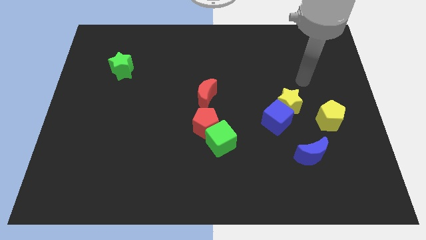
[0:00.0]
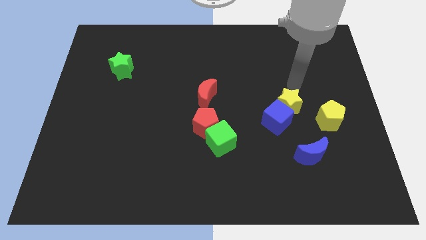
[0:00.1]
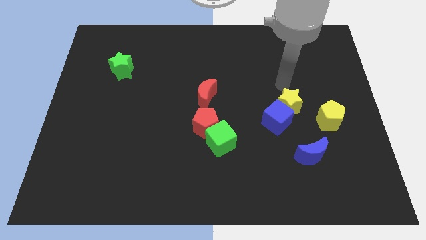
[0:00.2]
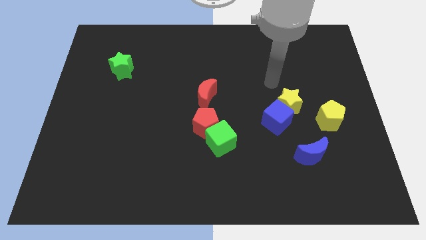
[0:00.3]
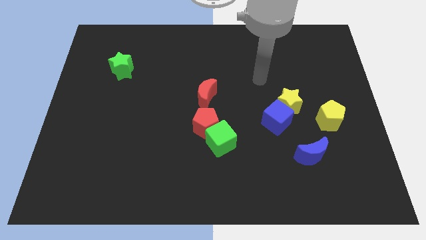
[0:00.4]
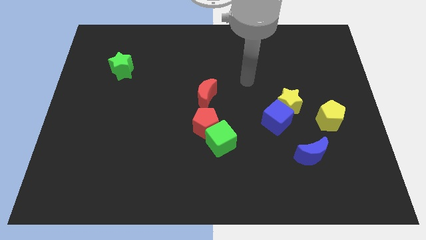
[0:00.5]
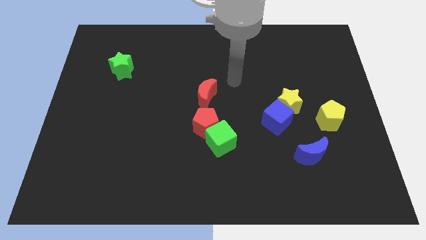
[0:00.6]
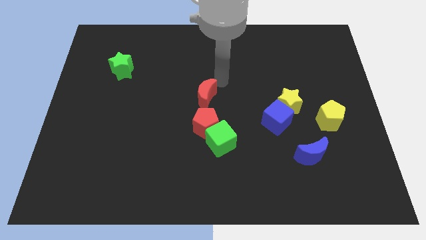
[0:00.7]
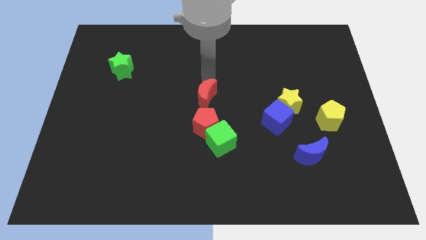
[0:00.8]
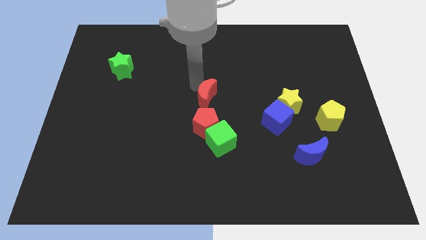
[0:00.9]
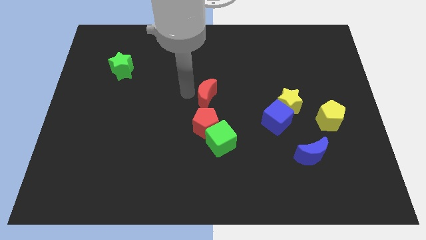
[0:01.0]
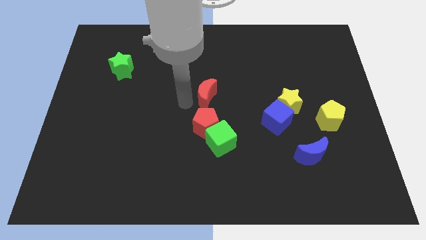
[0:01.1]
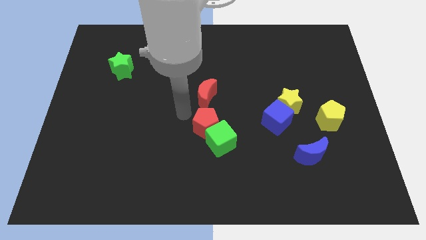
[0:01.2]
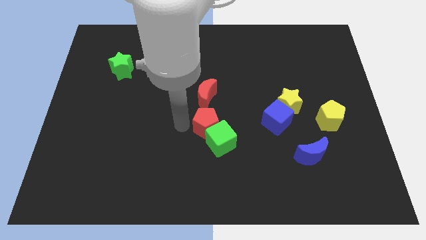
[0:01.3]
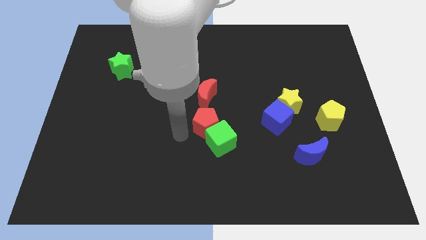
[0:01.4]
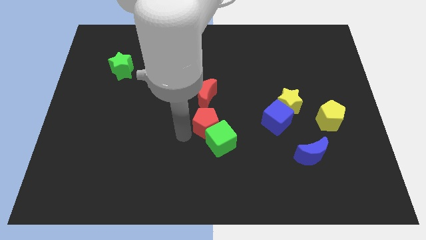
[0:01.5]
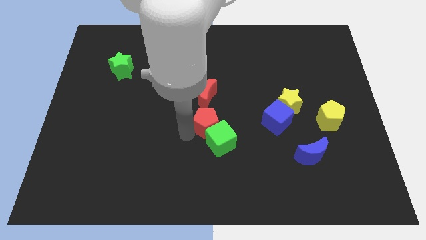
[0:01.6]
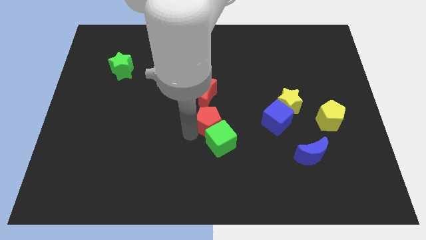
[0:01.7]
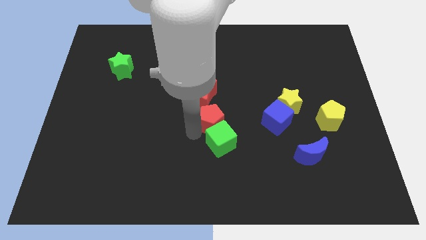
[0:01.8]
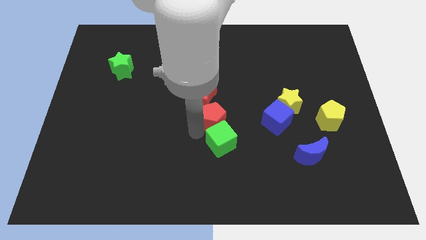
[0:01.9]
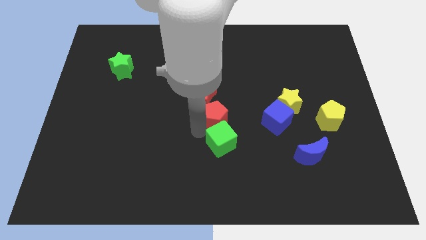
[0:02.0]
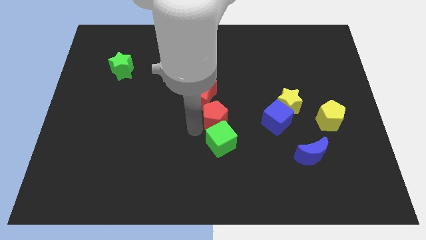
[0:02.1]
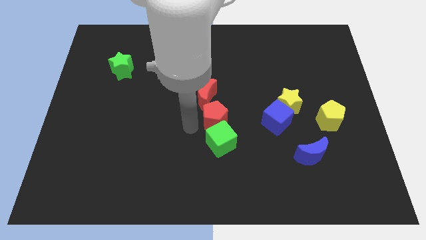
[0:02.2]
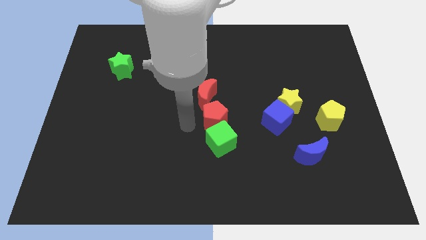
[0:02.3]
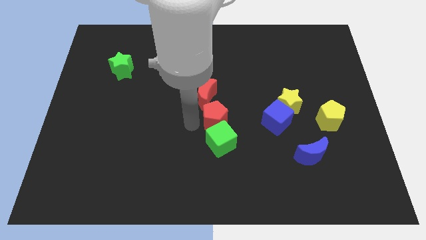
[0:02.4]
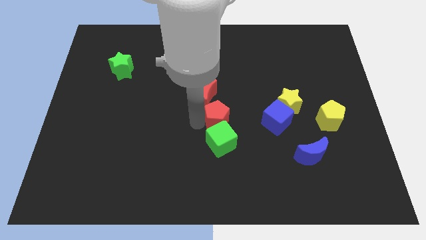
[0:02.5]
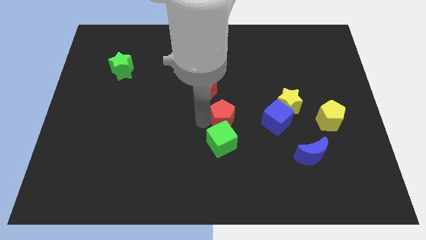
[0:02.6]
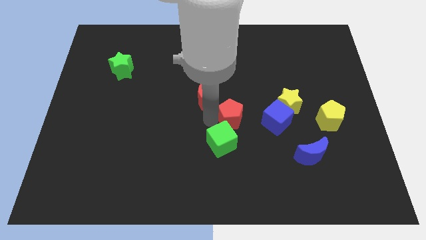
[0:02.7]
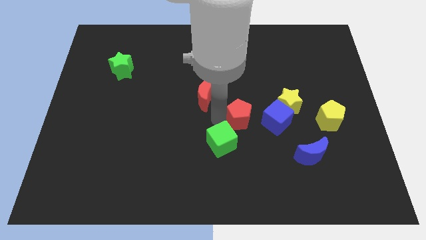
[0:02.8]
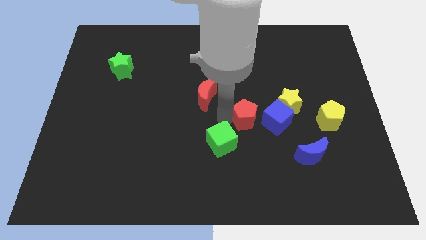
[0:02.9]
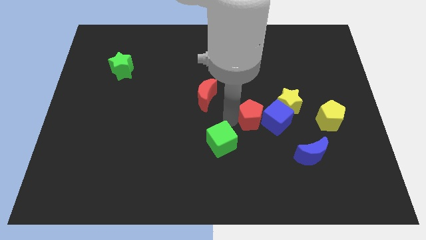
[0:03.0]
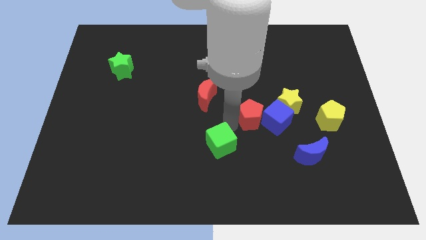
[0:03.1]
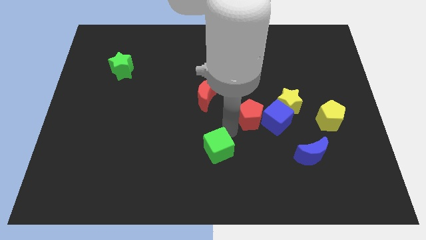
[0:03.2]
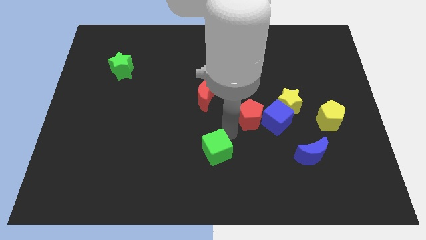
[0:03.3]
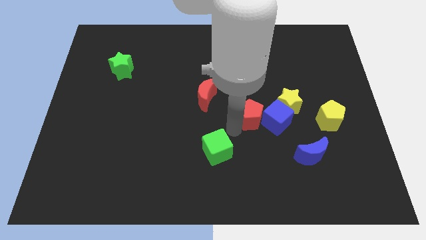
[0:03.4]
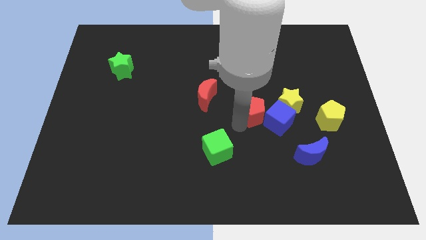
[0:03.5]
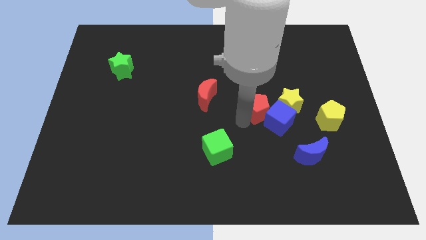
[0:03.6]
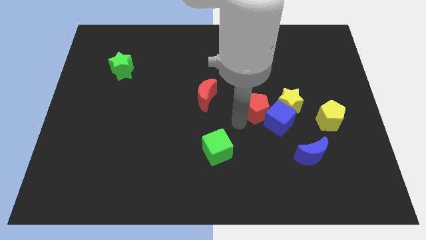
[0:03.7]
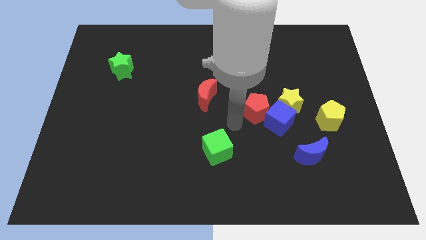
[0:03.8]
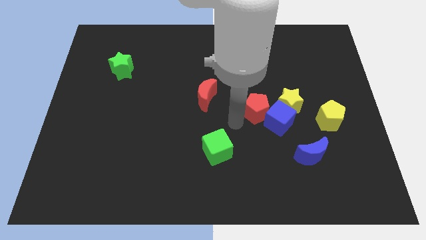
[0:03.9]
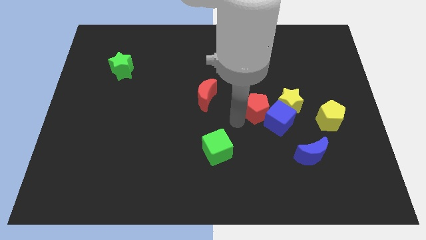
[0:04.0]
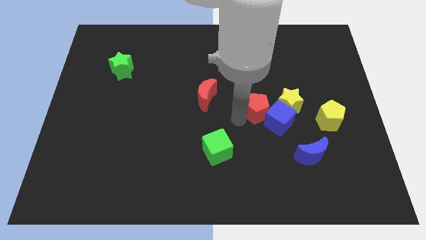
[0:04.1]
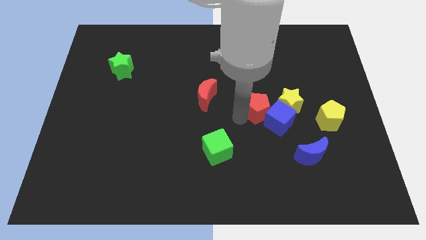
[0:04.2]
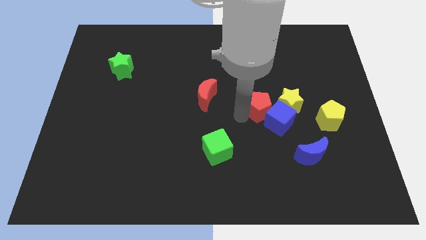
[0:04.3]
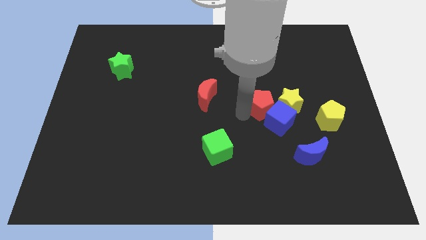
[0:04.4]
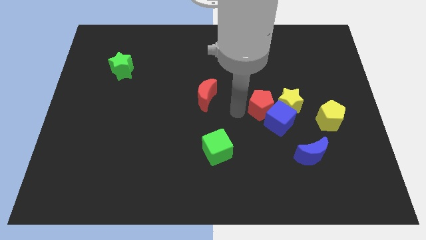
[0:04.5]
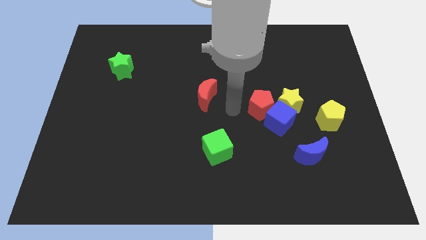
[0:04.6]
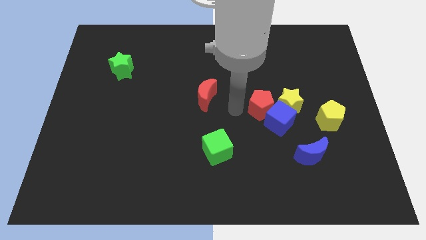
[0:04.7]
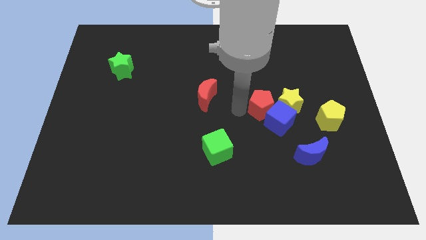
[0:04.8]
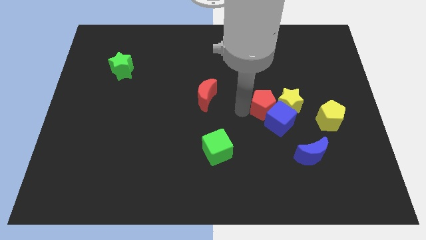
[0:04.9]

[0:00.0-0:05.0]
put the red pentagon towards the yellow star

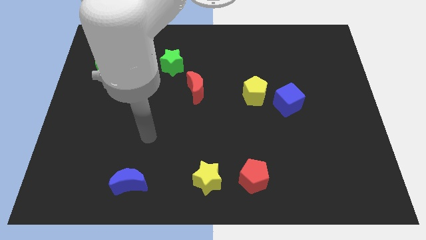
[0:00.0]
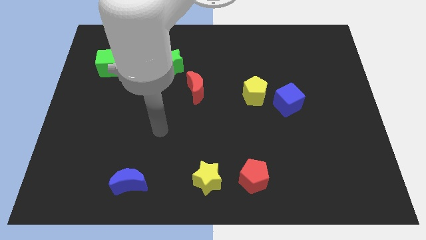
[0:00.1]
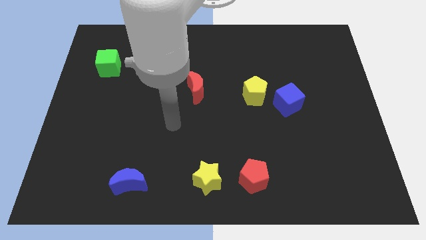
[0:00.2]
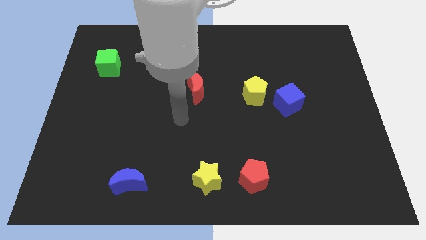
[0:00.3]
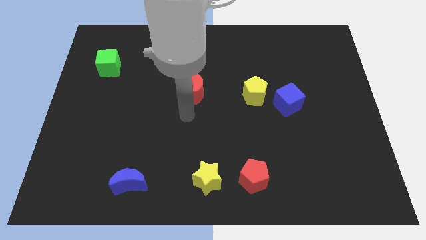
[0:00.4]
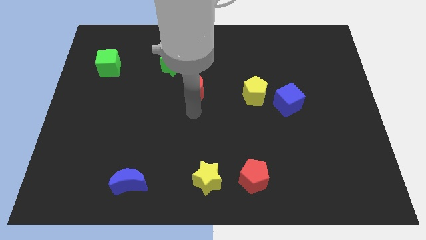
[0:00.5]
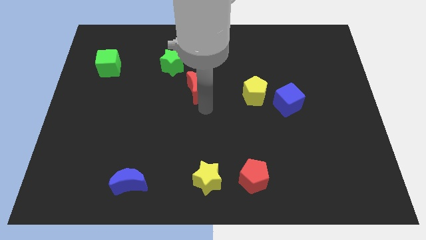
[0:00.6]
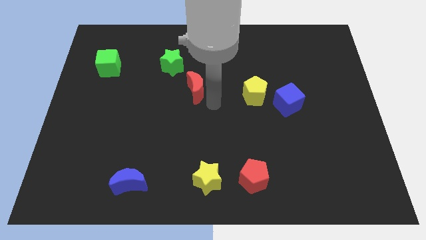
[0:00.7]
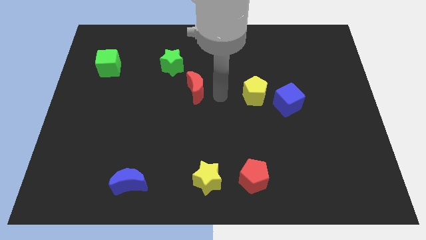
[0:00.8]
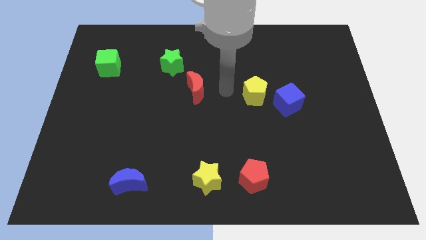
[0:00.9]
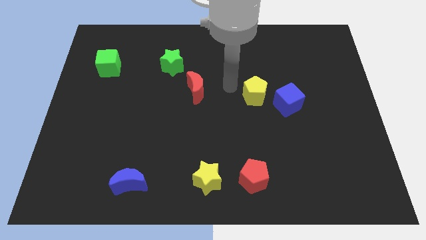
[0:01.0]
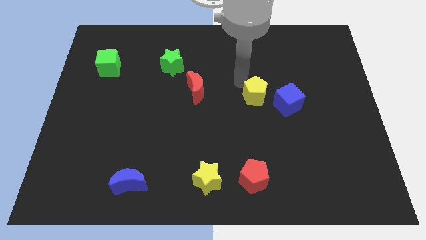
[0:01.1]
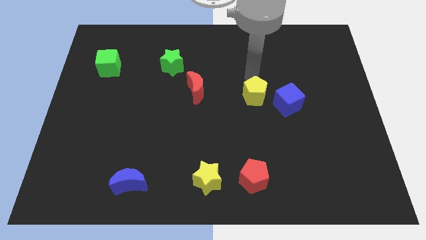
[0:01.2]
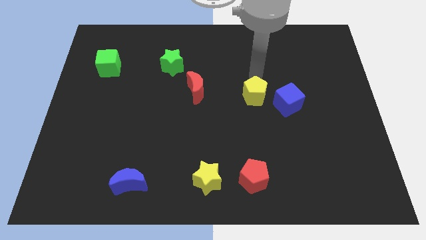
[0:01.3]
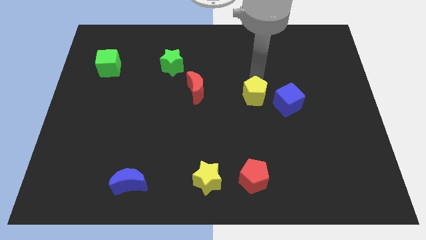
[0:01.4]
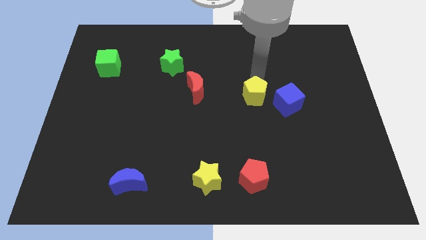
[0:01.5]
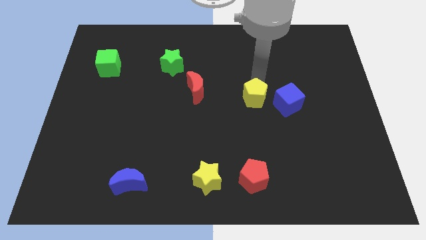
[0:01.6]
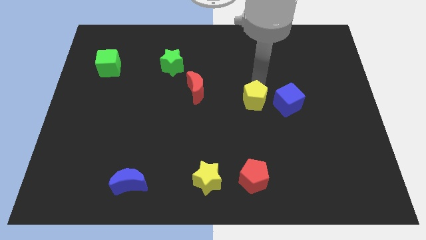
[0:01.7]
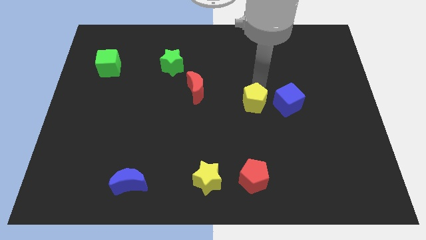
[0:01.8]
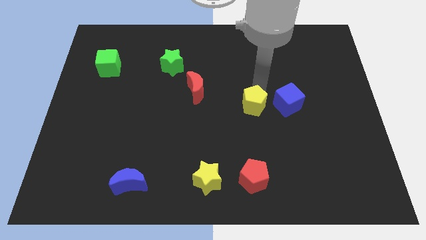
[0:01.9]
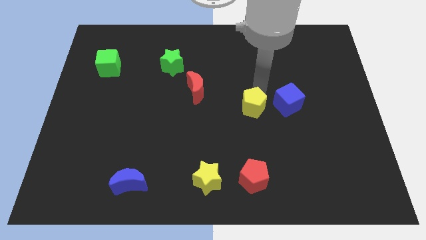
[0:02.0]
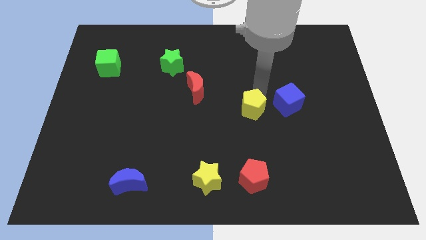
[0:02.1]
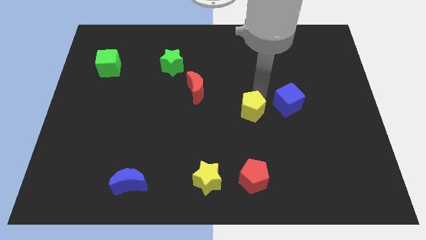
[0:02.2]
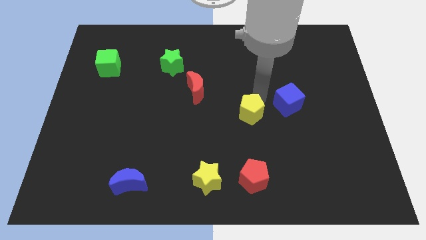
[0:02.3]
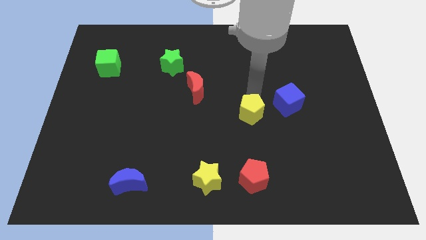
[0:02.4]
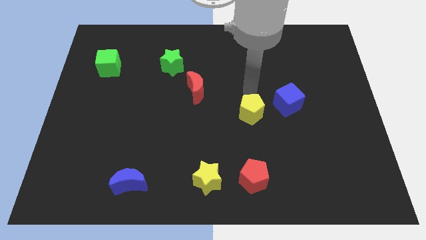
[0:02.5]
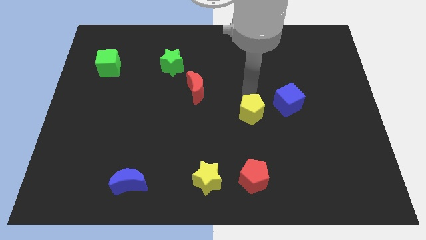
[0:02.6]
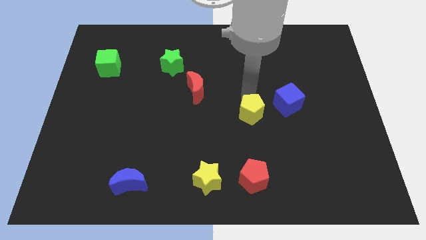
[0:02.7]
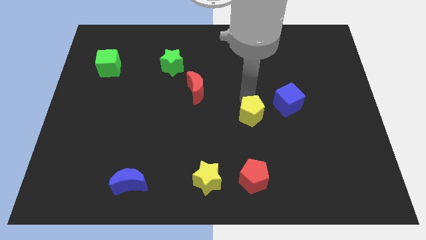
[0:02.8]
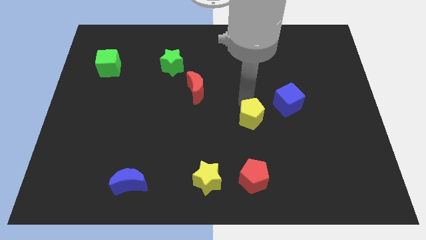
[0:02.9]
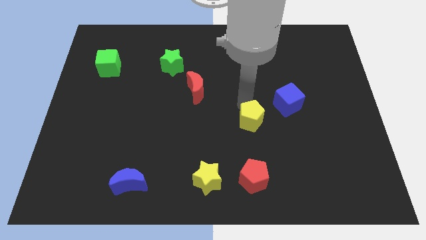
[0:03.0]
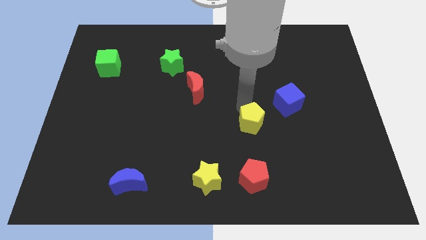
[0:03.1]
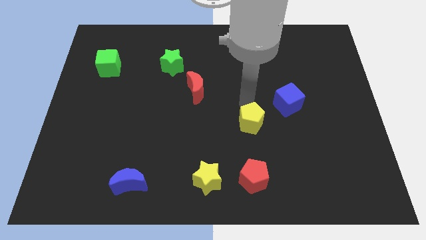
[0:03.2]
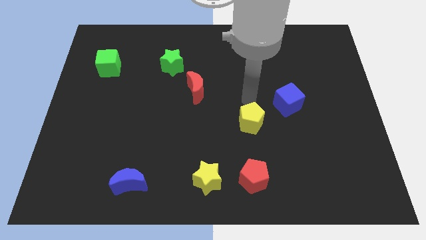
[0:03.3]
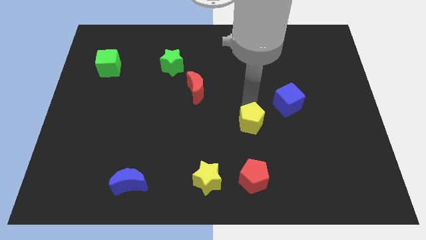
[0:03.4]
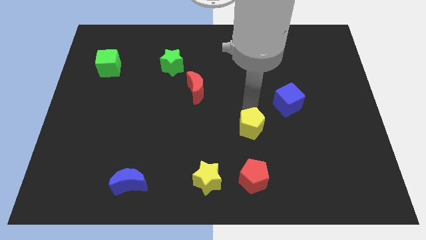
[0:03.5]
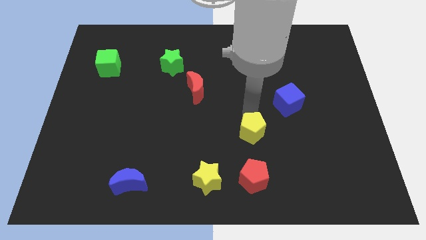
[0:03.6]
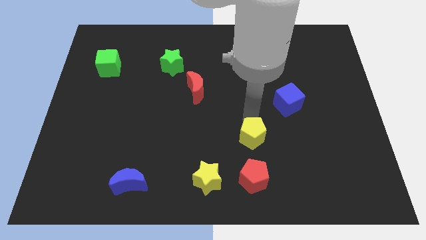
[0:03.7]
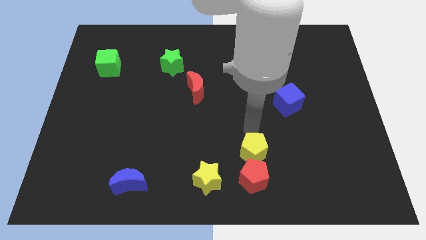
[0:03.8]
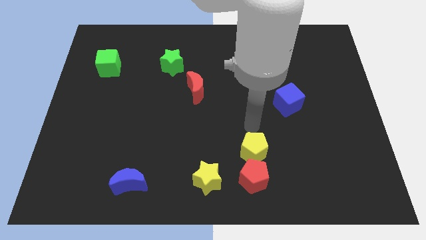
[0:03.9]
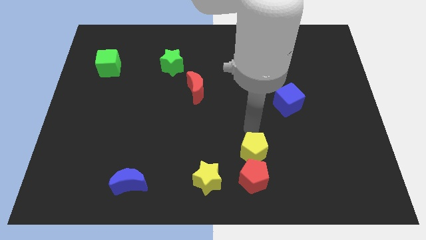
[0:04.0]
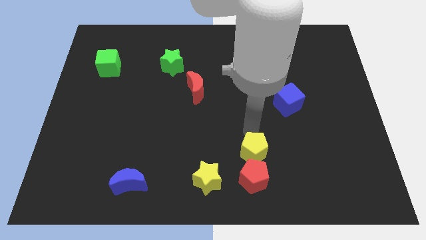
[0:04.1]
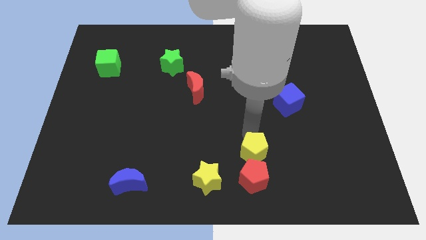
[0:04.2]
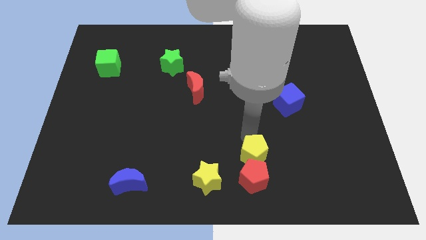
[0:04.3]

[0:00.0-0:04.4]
move the yellow pentagon towards the red pentagon
